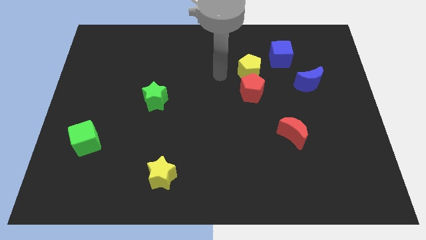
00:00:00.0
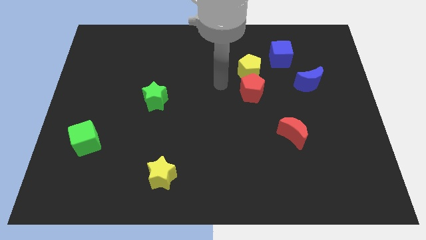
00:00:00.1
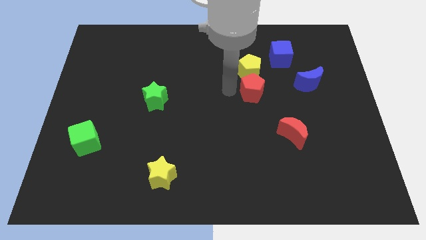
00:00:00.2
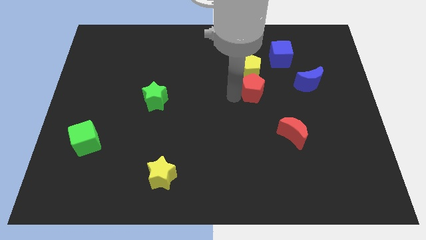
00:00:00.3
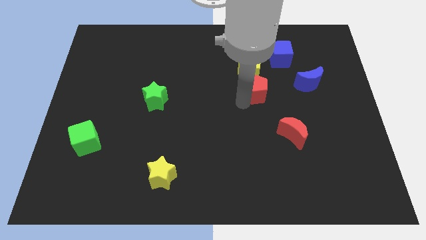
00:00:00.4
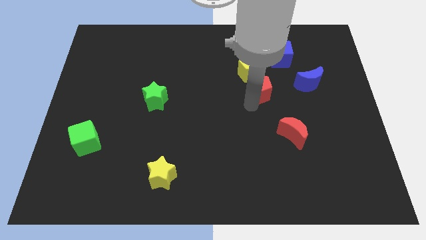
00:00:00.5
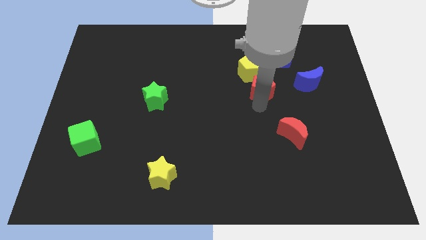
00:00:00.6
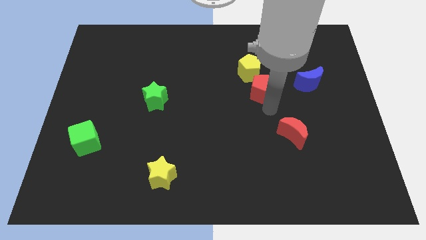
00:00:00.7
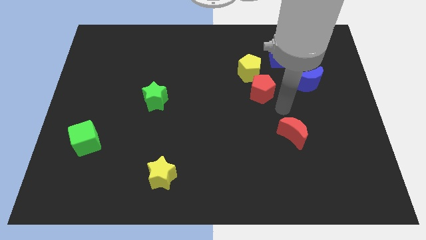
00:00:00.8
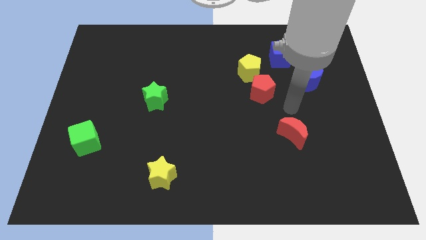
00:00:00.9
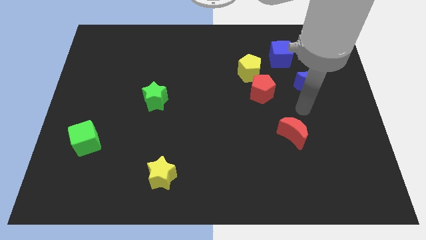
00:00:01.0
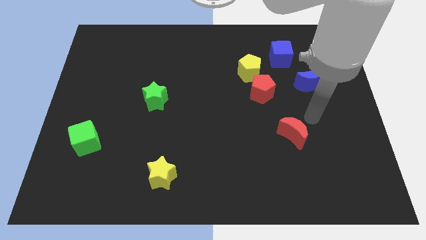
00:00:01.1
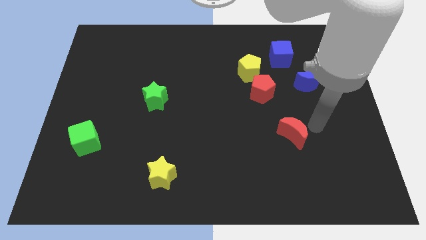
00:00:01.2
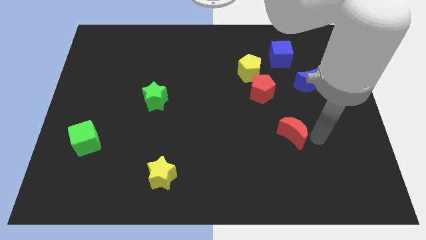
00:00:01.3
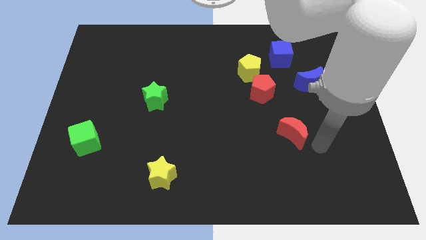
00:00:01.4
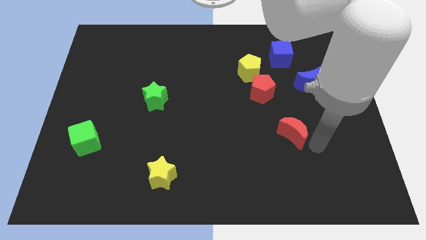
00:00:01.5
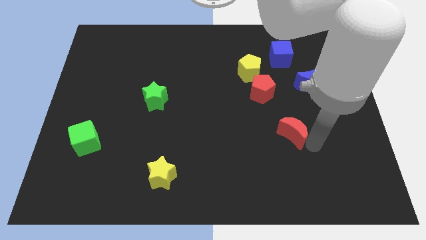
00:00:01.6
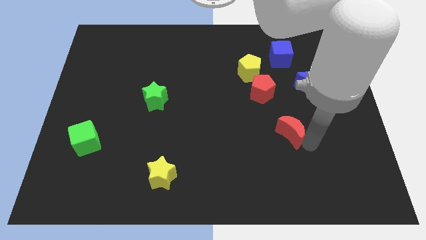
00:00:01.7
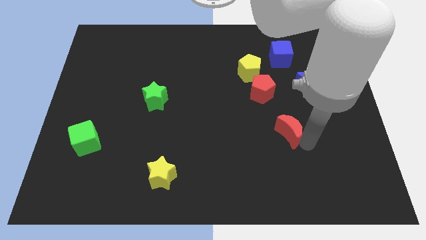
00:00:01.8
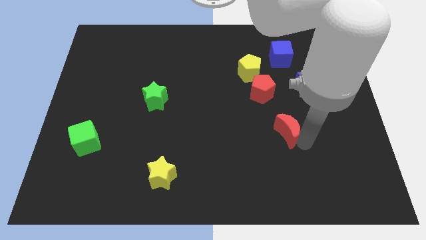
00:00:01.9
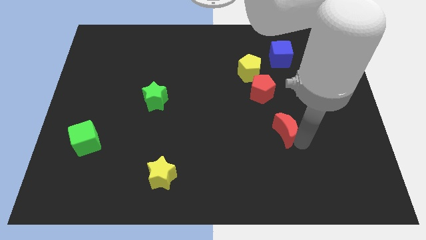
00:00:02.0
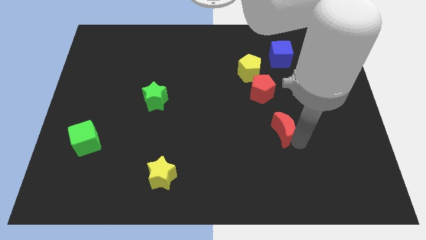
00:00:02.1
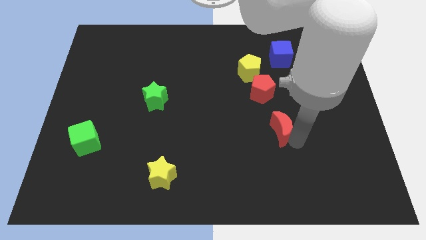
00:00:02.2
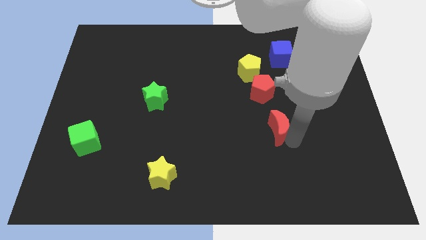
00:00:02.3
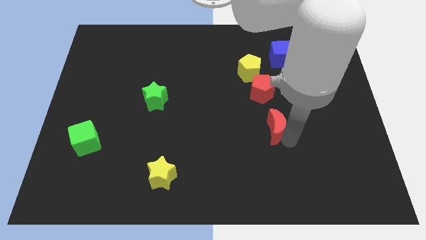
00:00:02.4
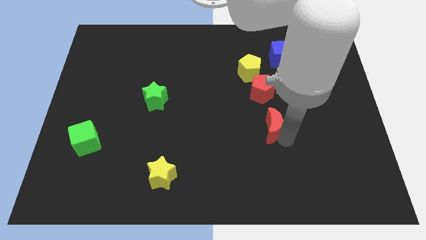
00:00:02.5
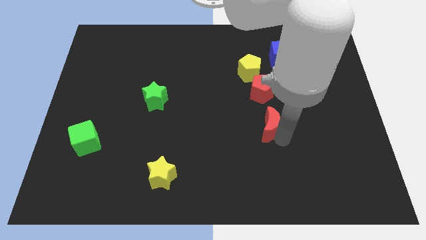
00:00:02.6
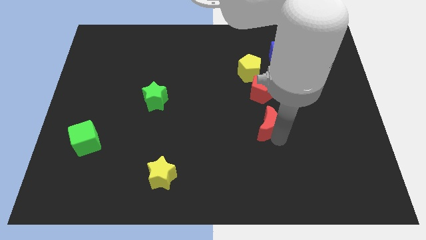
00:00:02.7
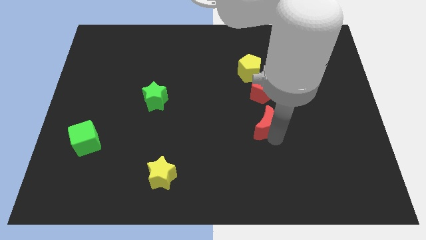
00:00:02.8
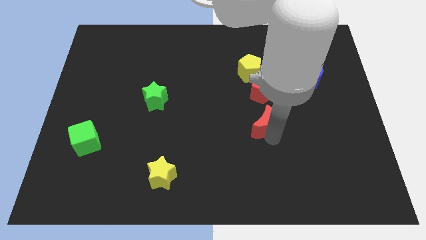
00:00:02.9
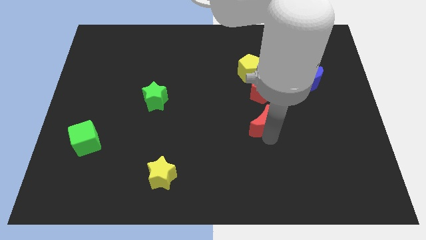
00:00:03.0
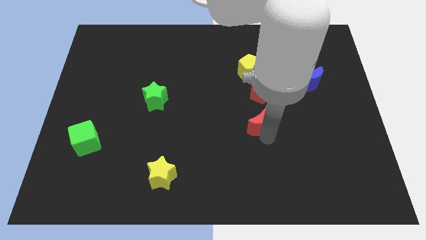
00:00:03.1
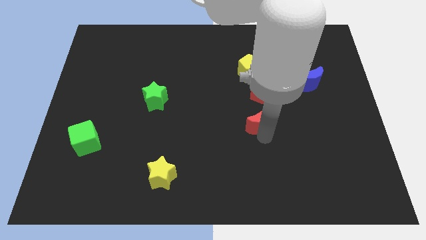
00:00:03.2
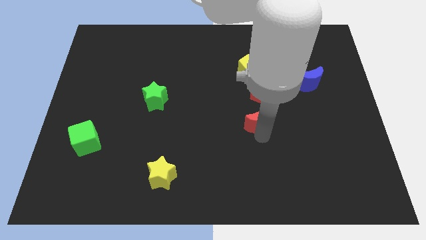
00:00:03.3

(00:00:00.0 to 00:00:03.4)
move the red moon a little upwards and left diagonally

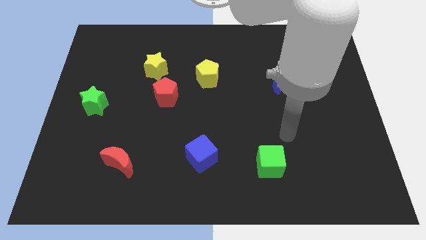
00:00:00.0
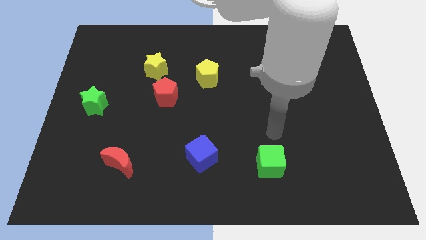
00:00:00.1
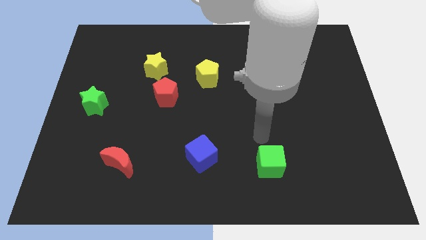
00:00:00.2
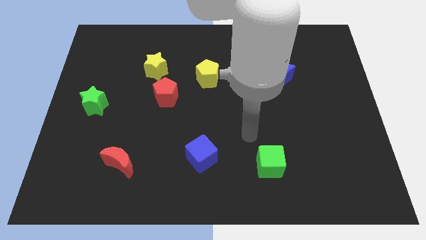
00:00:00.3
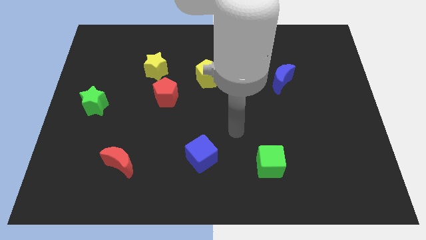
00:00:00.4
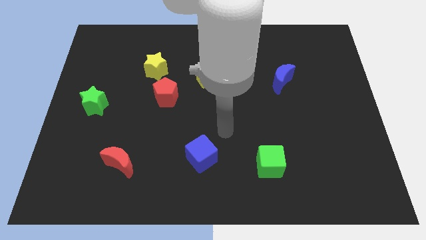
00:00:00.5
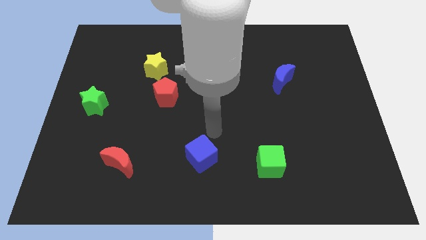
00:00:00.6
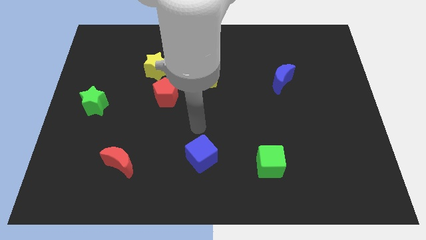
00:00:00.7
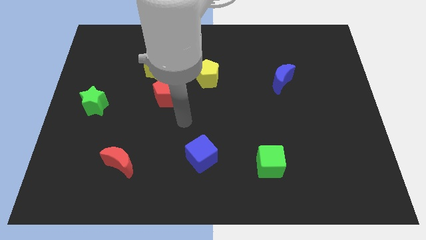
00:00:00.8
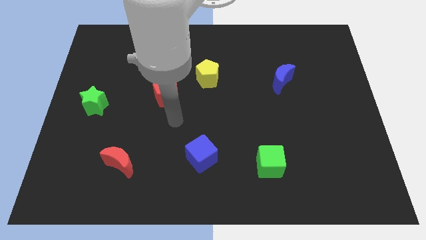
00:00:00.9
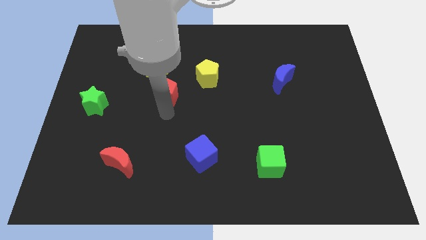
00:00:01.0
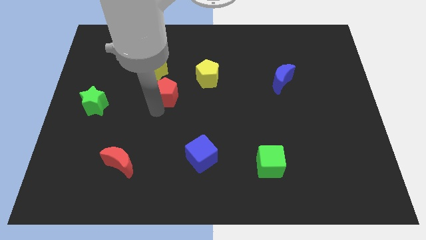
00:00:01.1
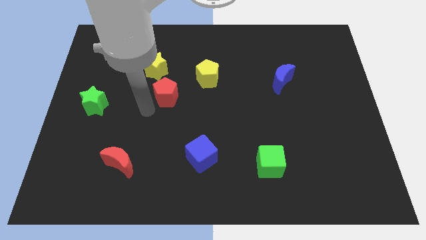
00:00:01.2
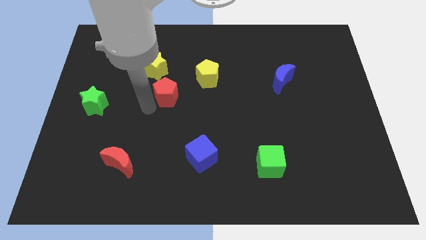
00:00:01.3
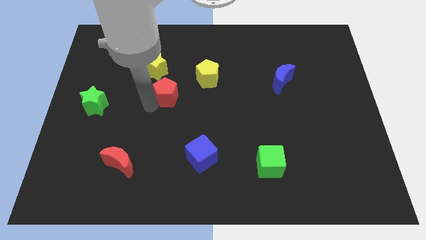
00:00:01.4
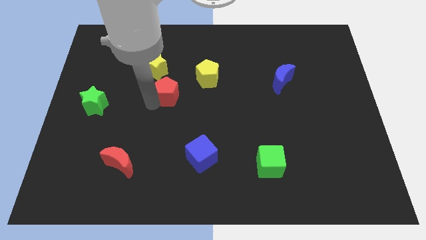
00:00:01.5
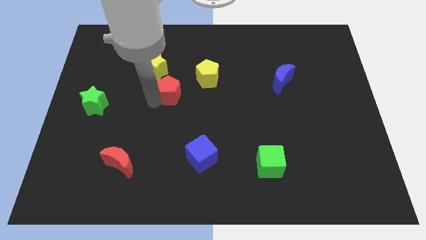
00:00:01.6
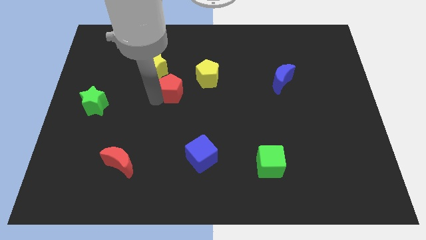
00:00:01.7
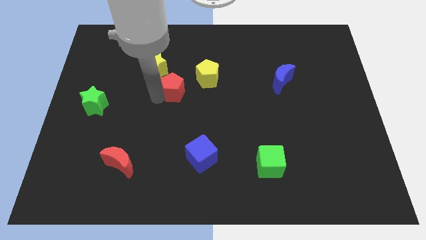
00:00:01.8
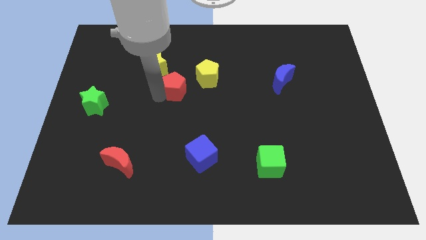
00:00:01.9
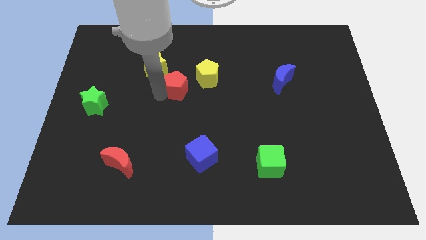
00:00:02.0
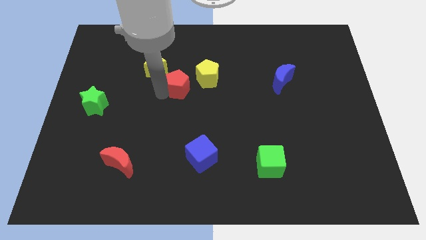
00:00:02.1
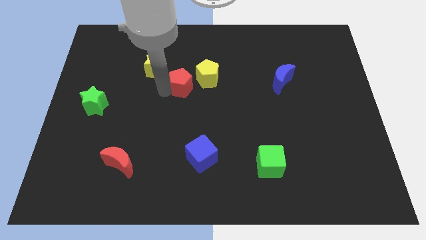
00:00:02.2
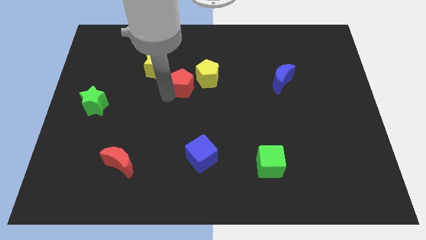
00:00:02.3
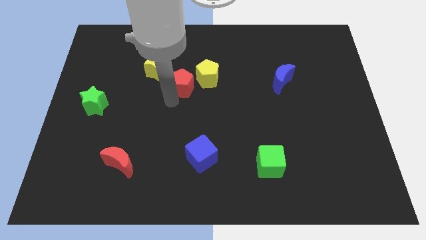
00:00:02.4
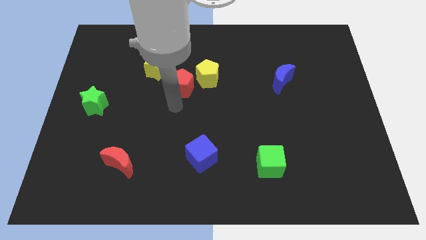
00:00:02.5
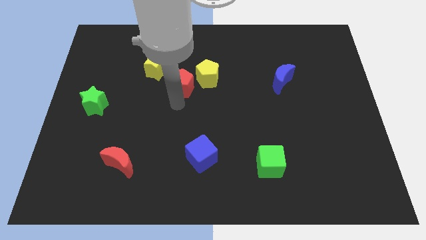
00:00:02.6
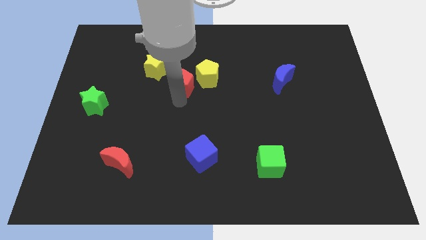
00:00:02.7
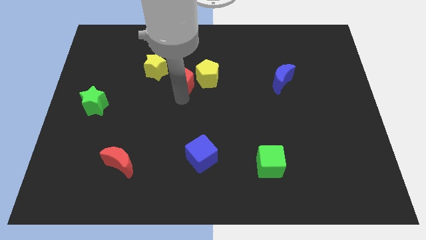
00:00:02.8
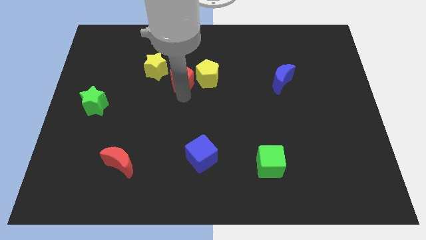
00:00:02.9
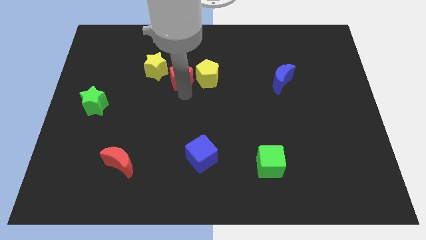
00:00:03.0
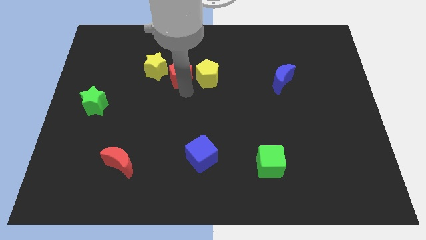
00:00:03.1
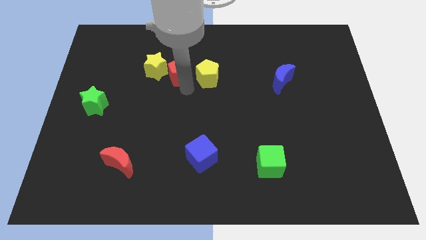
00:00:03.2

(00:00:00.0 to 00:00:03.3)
slightly move the red pentagon up and to the right

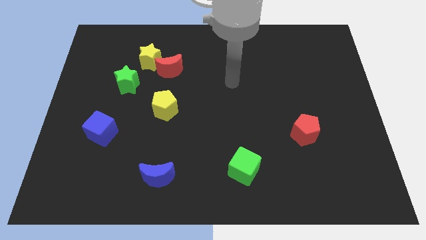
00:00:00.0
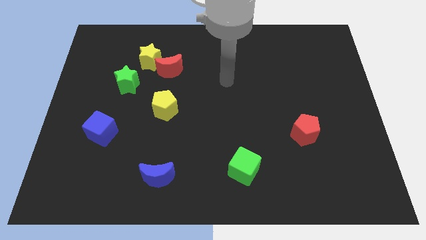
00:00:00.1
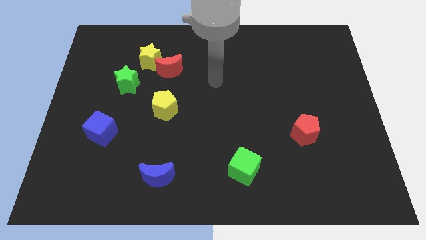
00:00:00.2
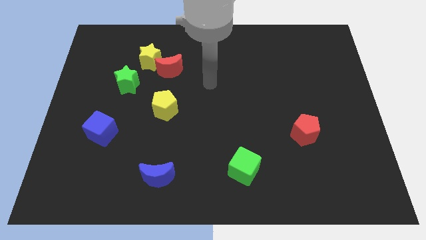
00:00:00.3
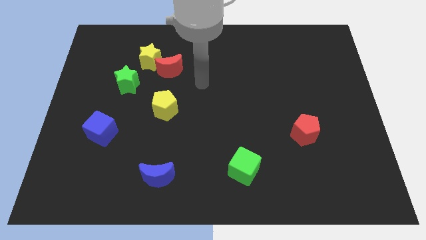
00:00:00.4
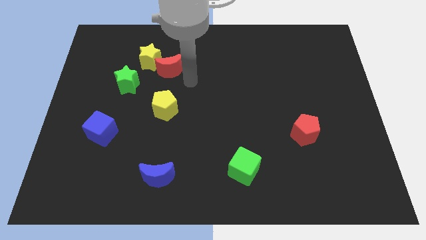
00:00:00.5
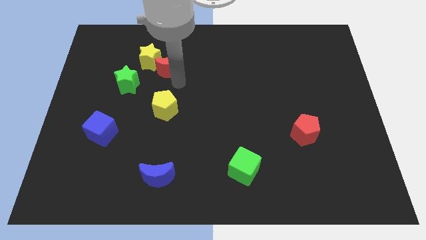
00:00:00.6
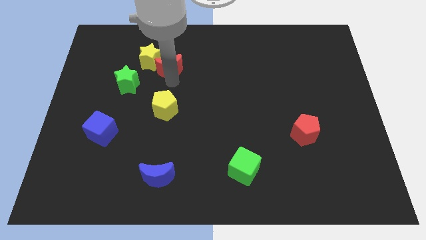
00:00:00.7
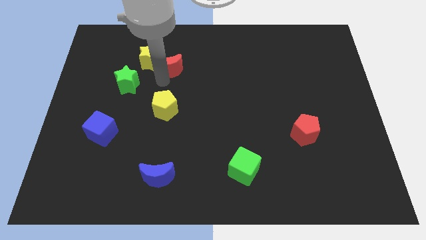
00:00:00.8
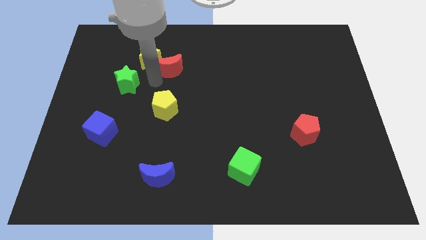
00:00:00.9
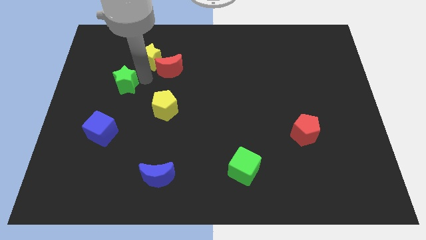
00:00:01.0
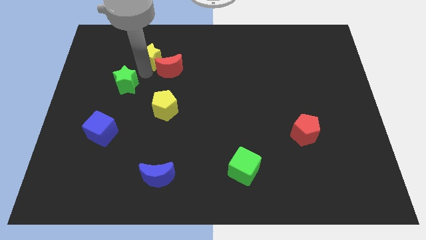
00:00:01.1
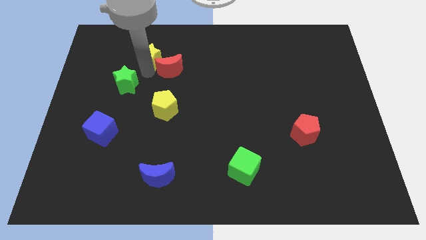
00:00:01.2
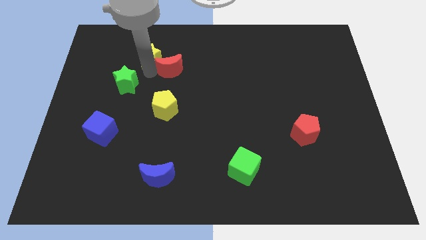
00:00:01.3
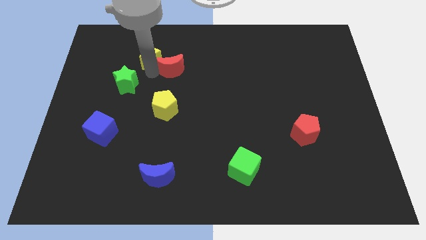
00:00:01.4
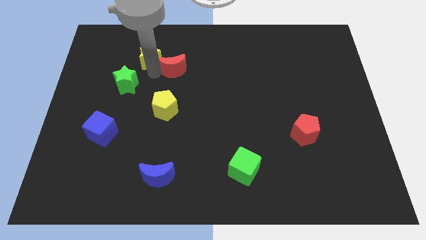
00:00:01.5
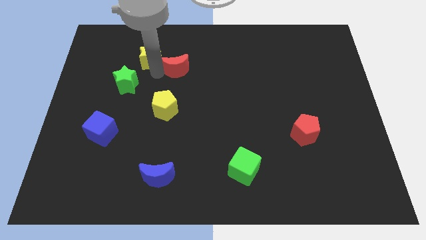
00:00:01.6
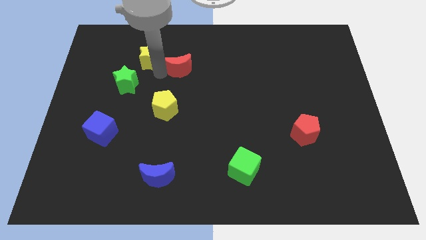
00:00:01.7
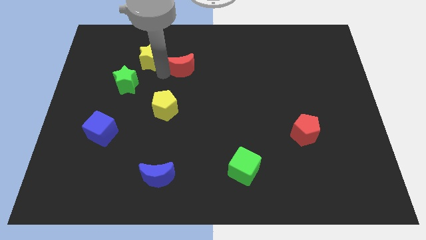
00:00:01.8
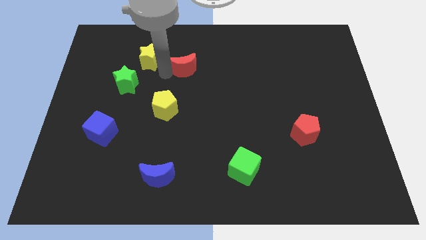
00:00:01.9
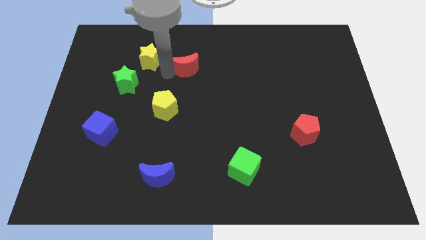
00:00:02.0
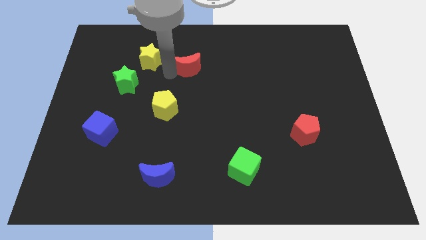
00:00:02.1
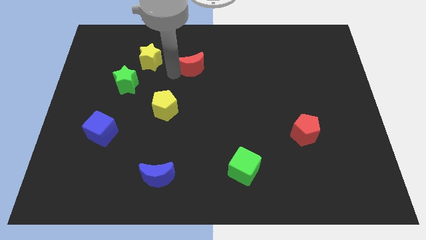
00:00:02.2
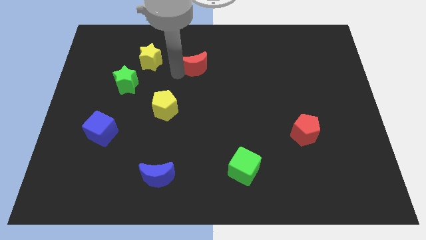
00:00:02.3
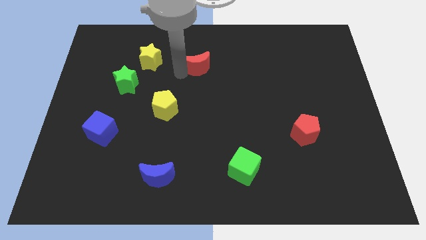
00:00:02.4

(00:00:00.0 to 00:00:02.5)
slide the red moon to the right somewhat
